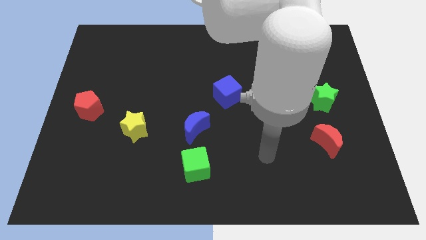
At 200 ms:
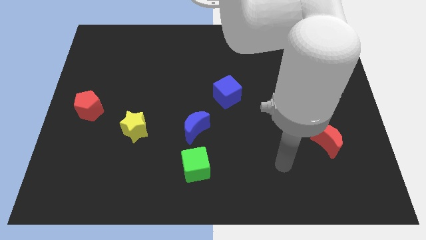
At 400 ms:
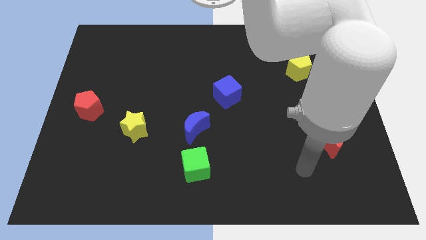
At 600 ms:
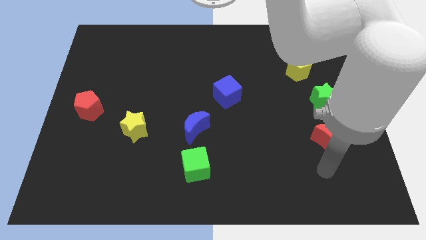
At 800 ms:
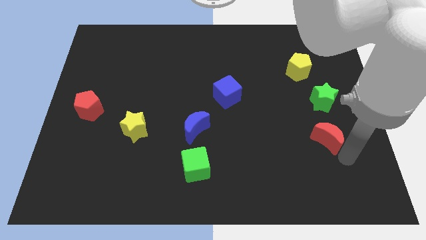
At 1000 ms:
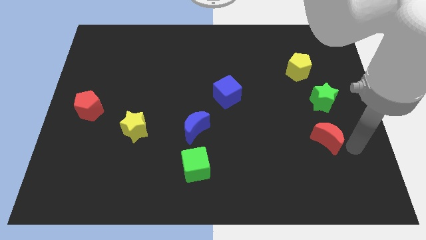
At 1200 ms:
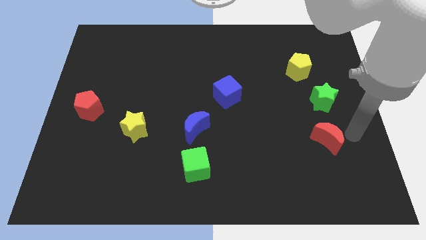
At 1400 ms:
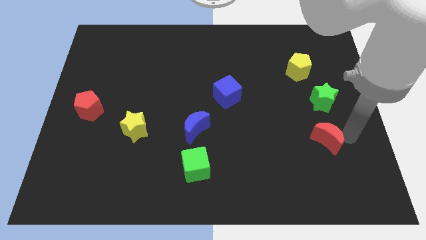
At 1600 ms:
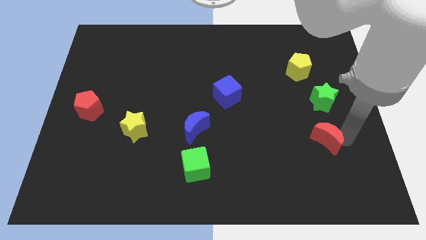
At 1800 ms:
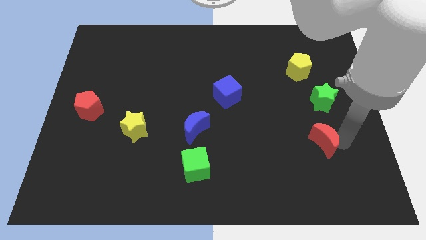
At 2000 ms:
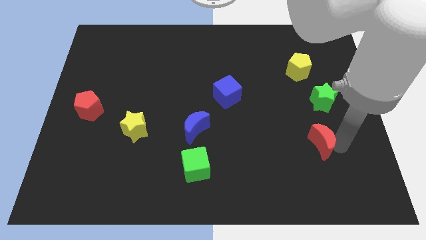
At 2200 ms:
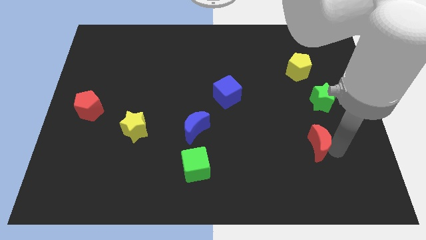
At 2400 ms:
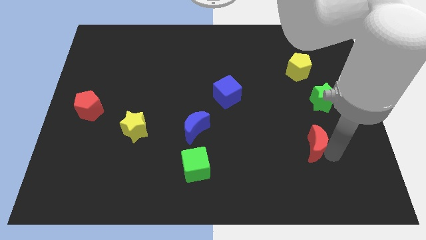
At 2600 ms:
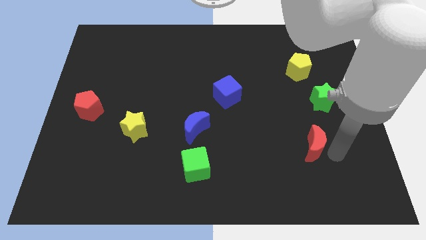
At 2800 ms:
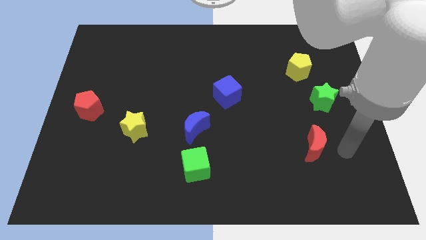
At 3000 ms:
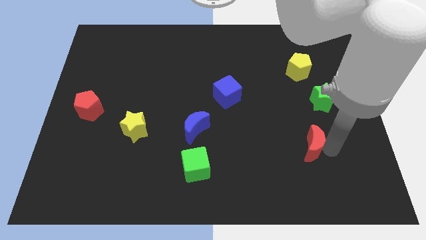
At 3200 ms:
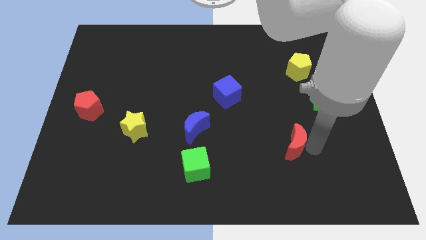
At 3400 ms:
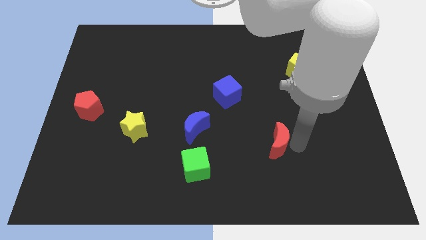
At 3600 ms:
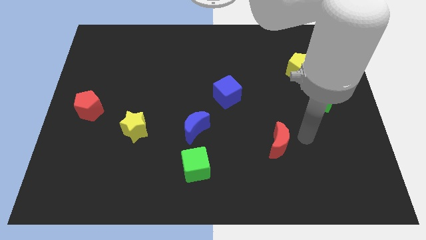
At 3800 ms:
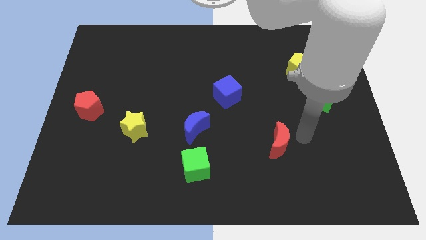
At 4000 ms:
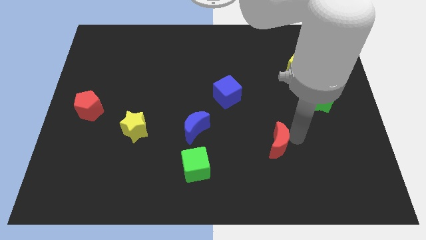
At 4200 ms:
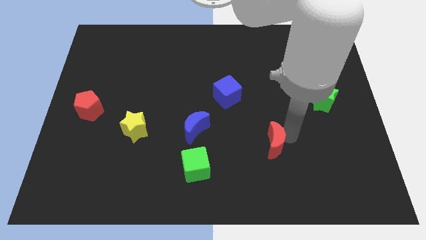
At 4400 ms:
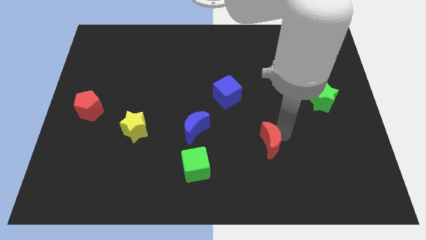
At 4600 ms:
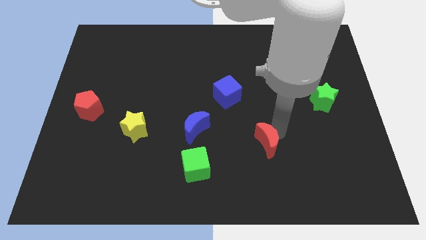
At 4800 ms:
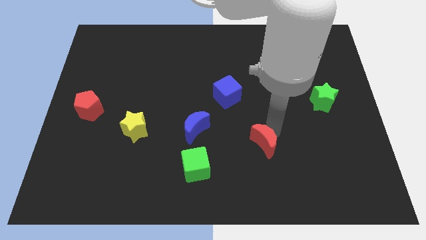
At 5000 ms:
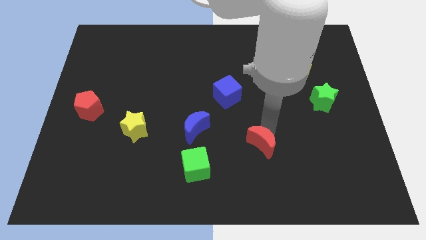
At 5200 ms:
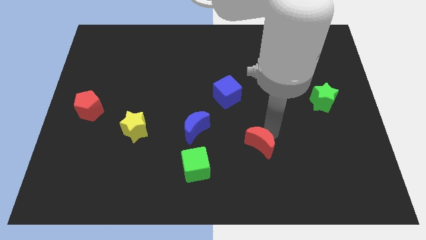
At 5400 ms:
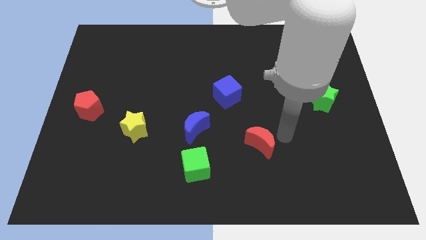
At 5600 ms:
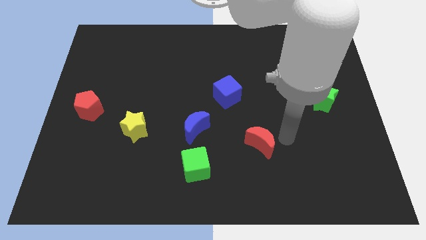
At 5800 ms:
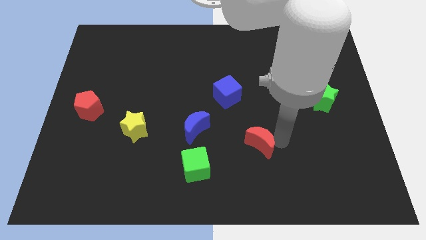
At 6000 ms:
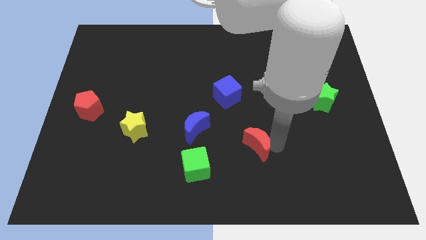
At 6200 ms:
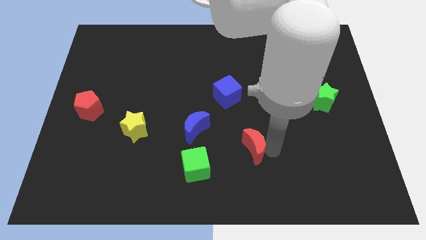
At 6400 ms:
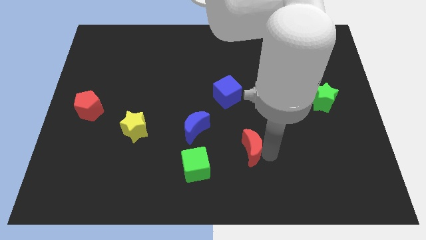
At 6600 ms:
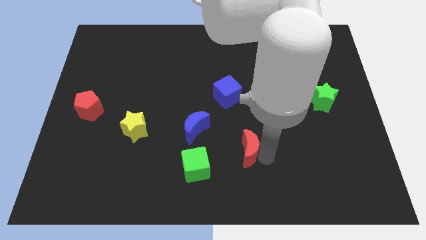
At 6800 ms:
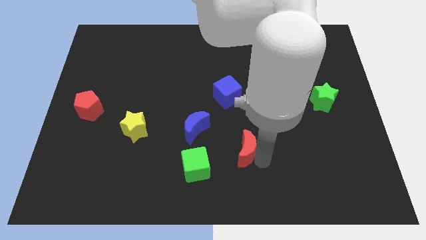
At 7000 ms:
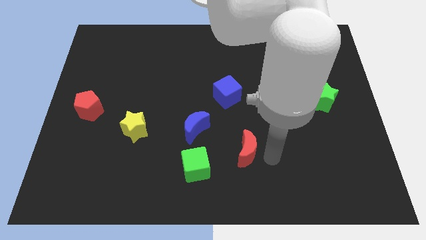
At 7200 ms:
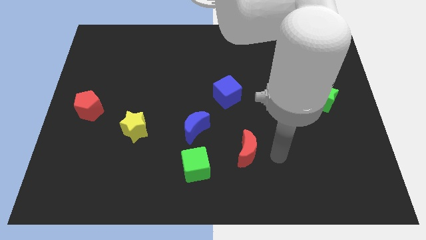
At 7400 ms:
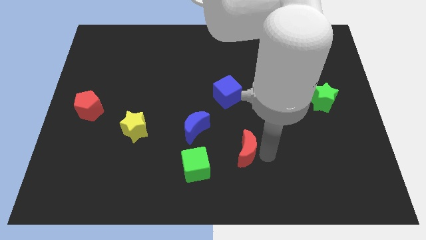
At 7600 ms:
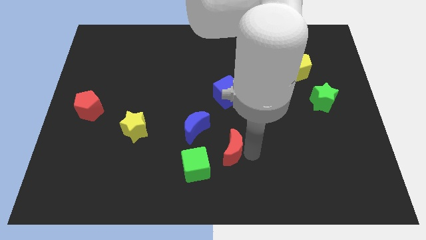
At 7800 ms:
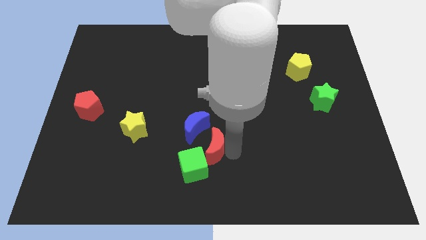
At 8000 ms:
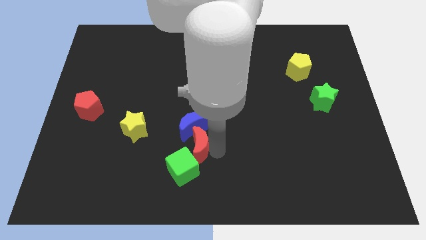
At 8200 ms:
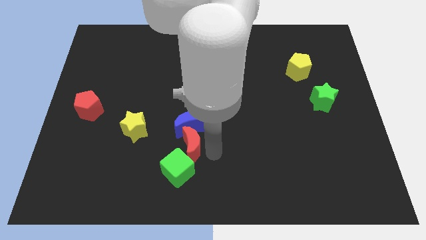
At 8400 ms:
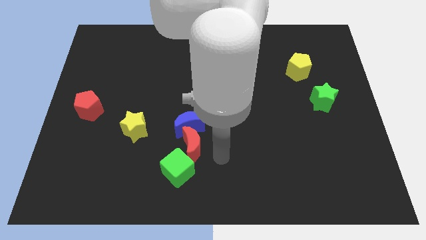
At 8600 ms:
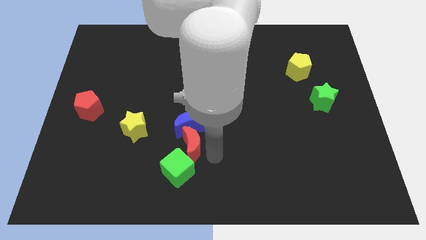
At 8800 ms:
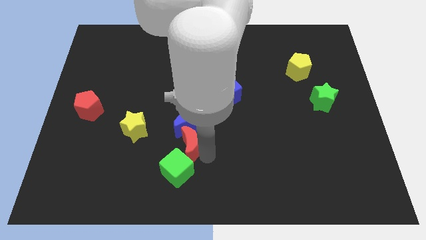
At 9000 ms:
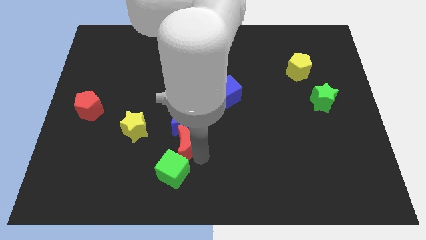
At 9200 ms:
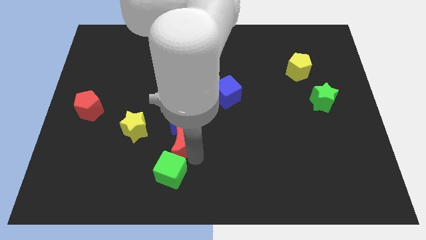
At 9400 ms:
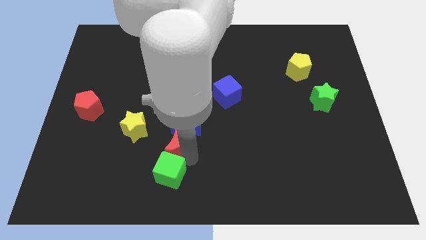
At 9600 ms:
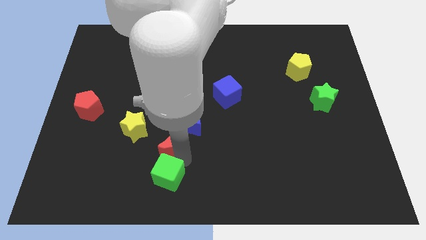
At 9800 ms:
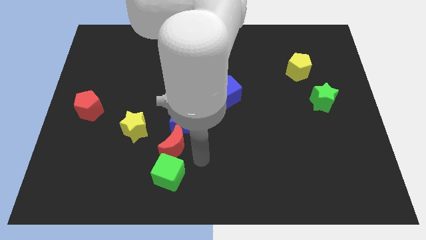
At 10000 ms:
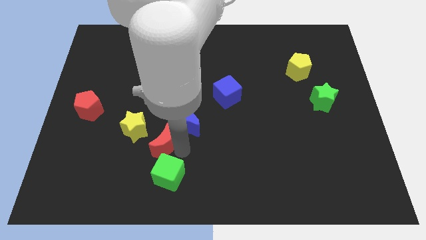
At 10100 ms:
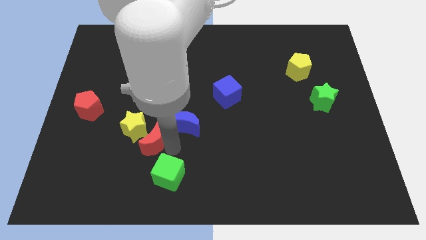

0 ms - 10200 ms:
push the red moon towards the yellow star
